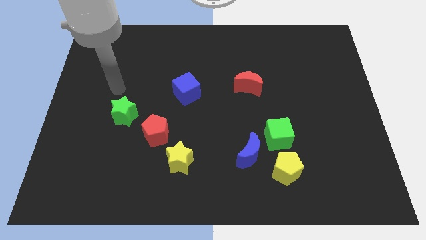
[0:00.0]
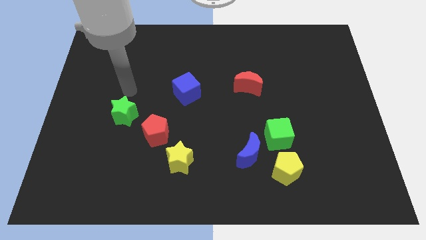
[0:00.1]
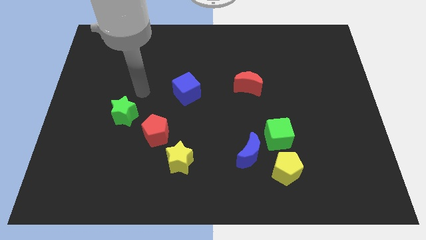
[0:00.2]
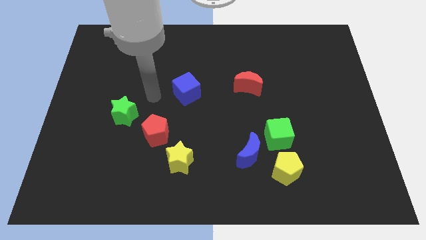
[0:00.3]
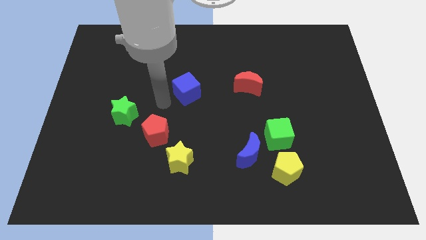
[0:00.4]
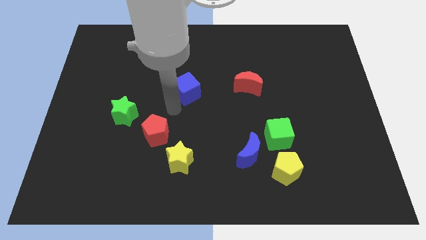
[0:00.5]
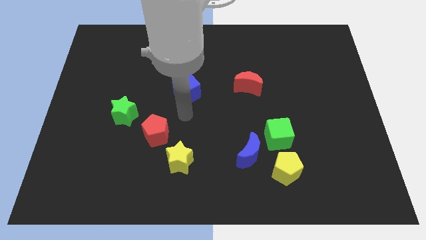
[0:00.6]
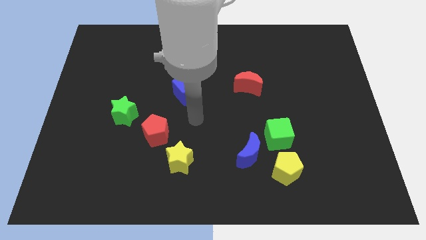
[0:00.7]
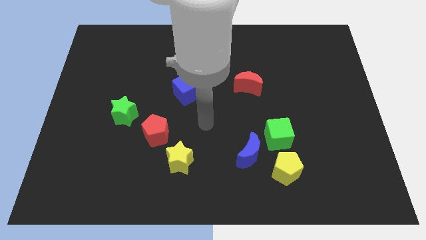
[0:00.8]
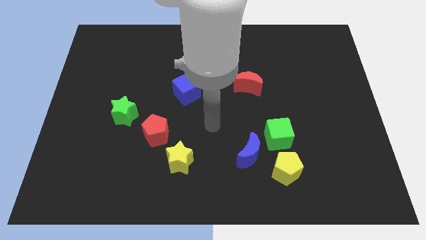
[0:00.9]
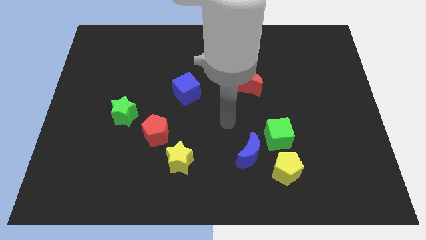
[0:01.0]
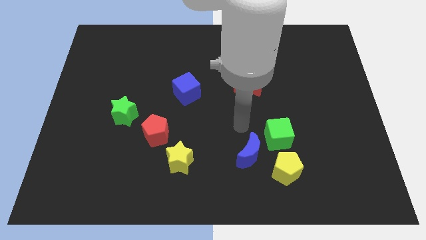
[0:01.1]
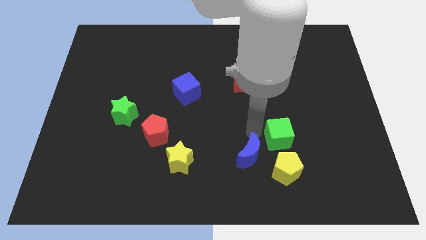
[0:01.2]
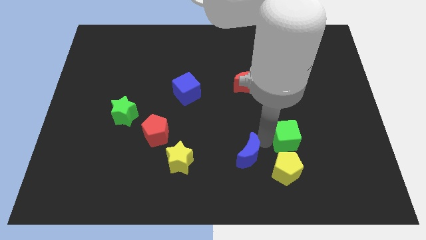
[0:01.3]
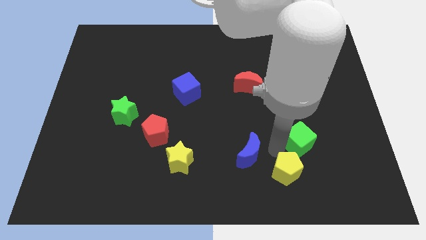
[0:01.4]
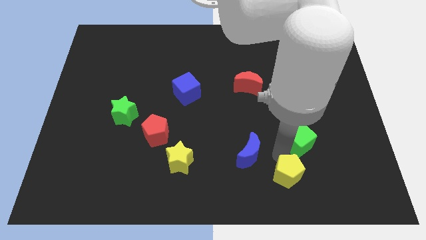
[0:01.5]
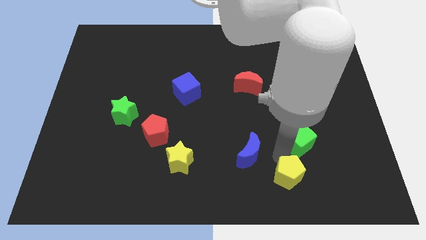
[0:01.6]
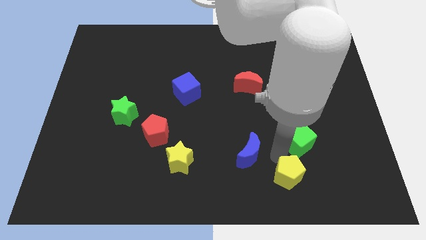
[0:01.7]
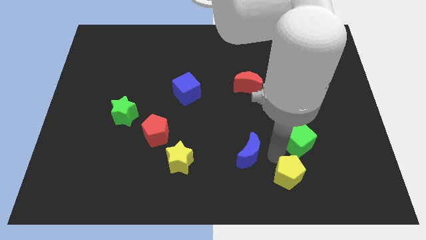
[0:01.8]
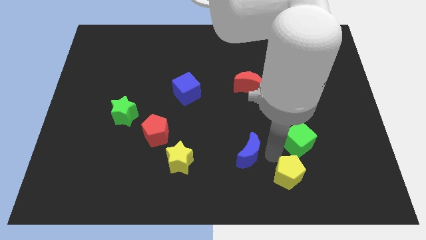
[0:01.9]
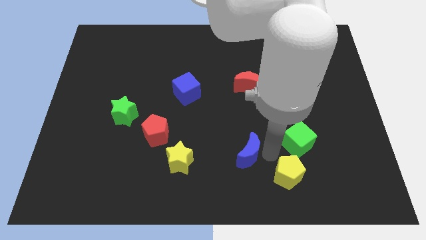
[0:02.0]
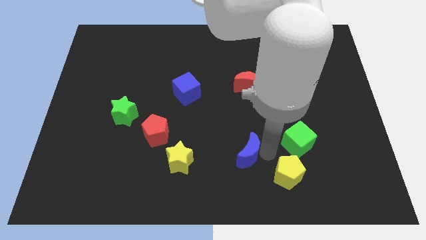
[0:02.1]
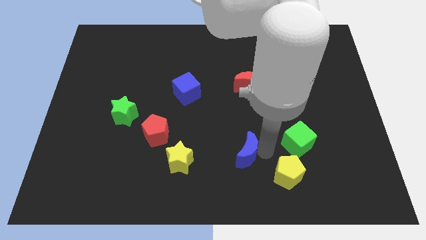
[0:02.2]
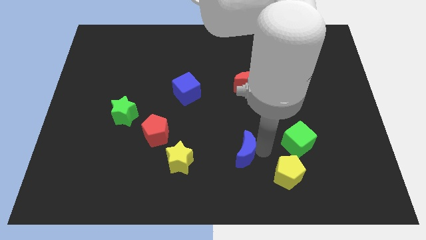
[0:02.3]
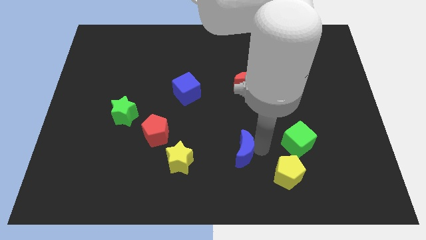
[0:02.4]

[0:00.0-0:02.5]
separate the blue moon from the green cube and yellow pentagon

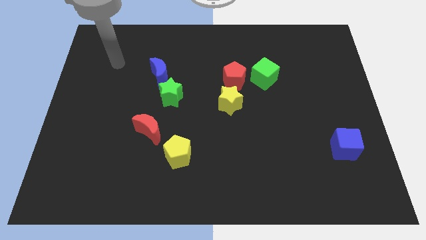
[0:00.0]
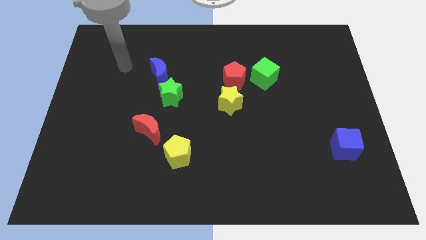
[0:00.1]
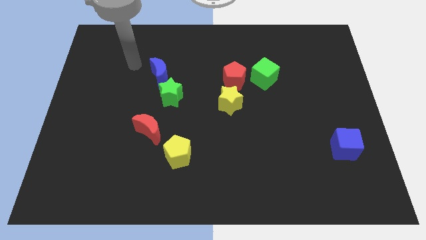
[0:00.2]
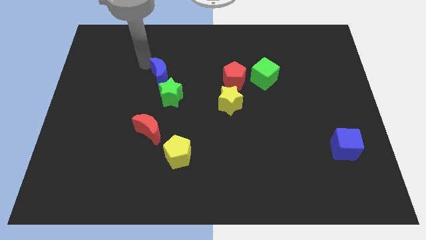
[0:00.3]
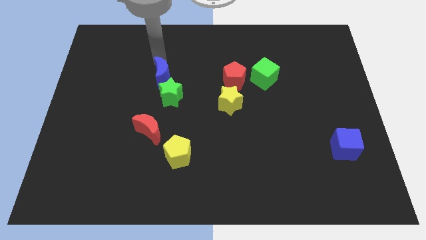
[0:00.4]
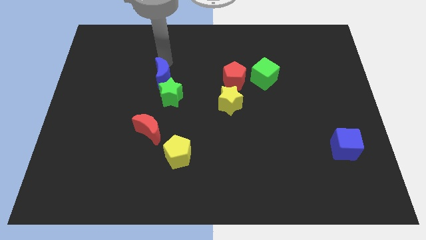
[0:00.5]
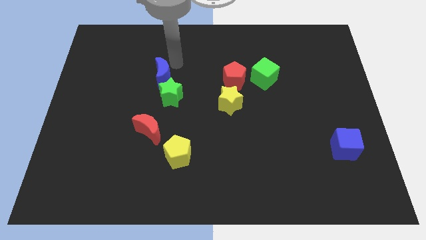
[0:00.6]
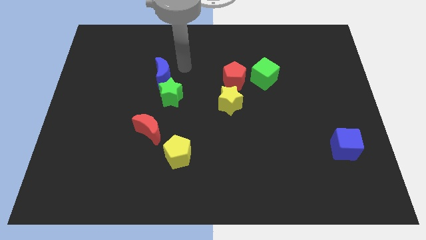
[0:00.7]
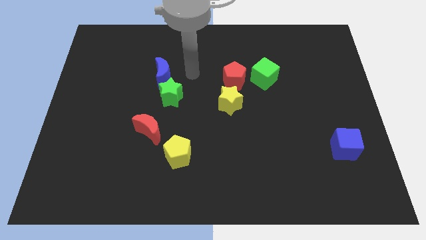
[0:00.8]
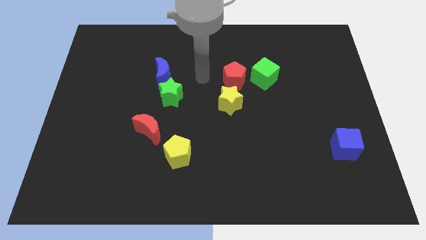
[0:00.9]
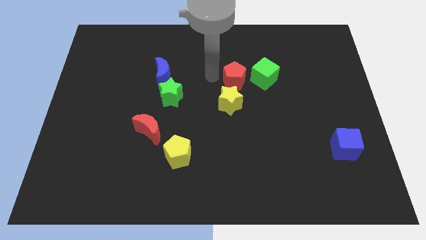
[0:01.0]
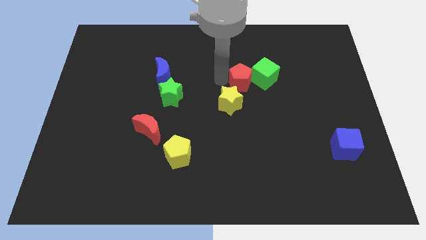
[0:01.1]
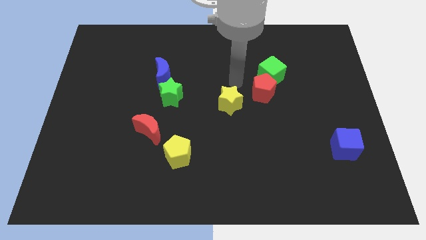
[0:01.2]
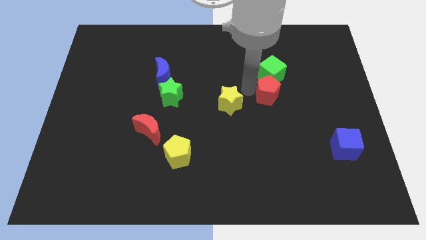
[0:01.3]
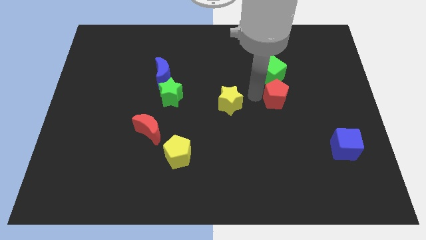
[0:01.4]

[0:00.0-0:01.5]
separate the yellow star from the red pentagon

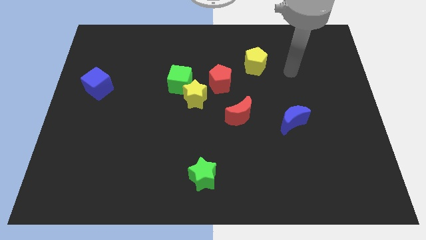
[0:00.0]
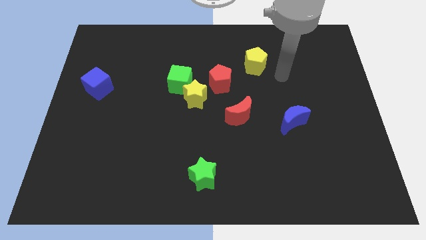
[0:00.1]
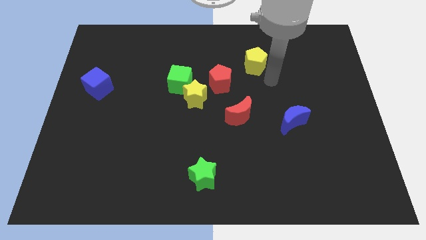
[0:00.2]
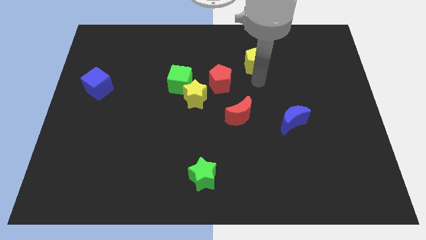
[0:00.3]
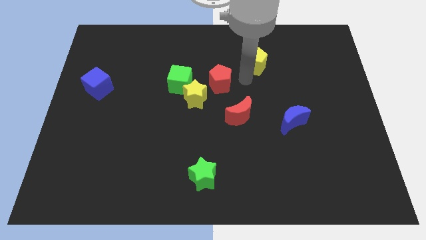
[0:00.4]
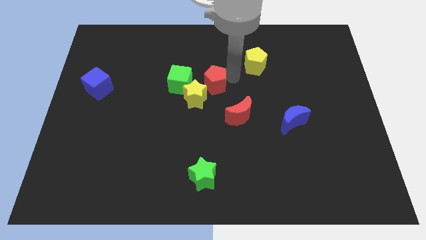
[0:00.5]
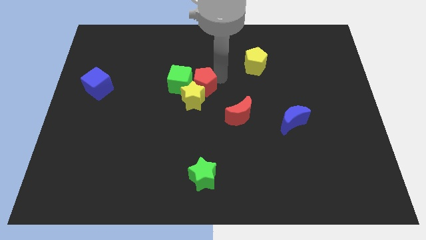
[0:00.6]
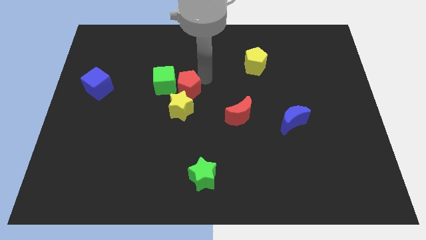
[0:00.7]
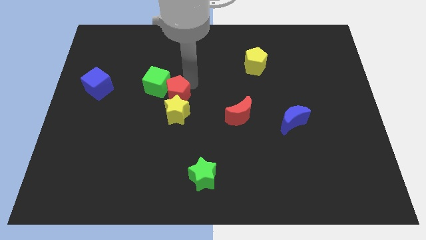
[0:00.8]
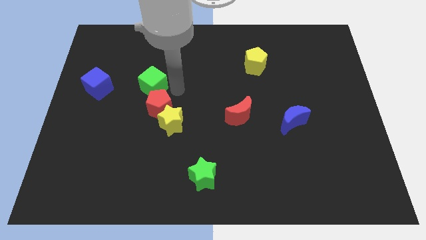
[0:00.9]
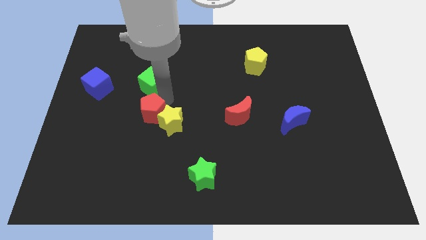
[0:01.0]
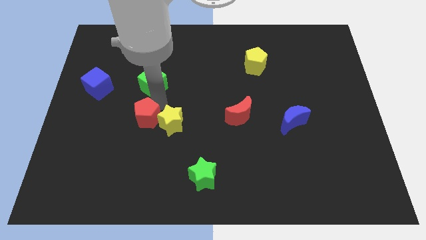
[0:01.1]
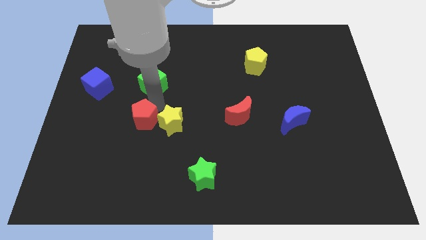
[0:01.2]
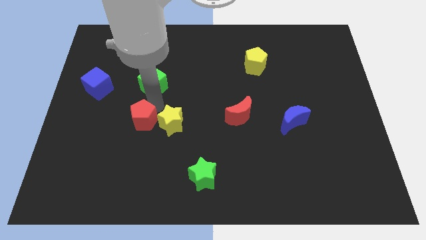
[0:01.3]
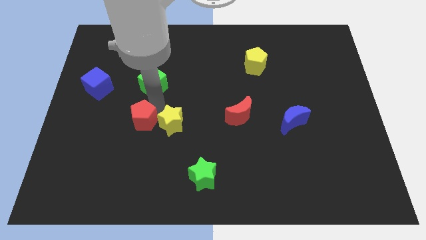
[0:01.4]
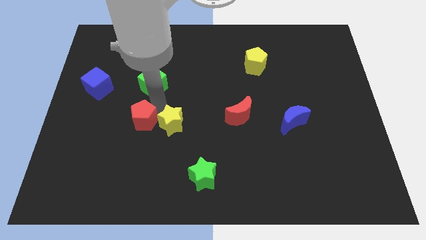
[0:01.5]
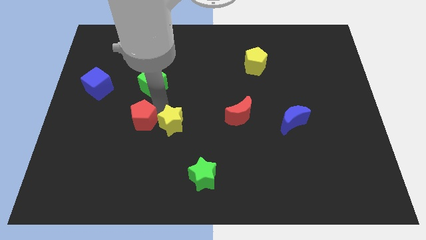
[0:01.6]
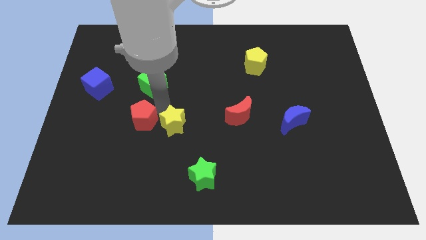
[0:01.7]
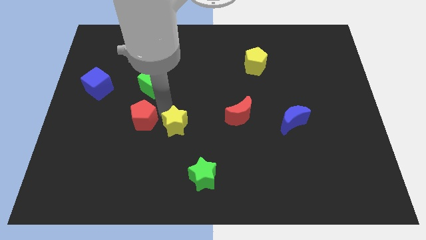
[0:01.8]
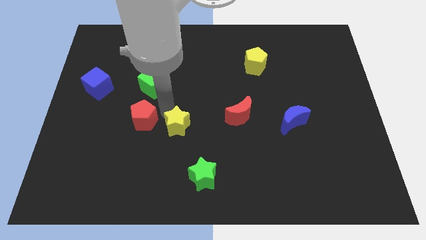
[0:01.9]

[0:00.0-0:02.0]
pull the yellow star apart from the green cube and red pentagon

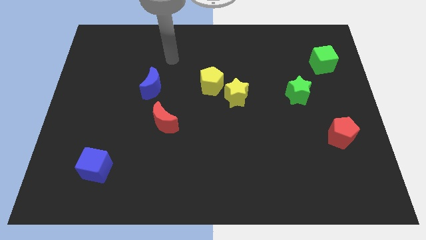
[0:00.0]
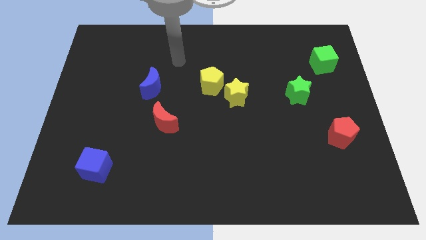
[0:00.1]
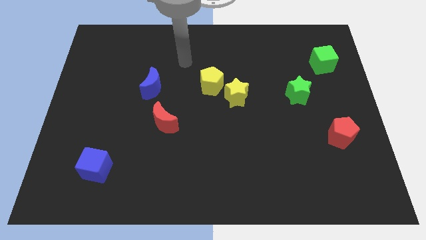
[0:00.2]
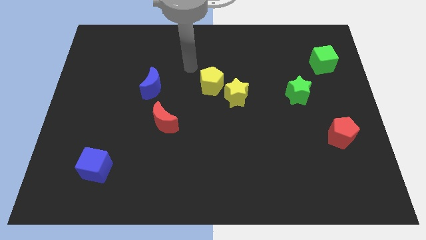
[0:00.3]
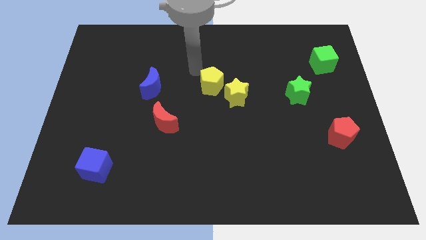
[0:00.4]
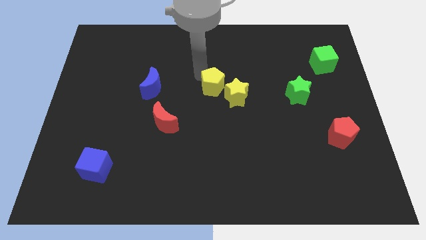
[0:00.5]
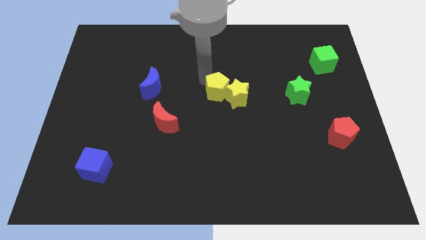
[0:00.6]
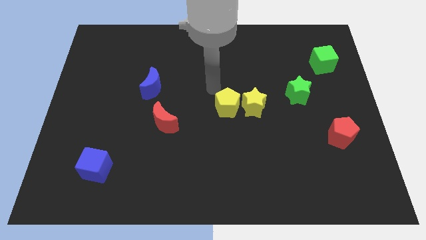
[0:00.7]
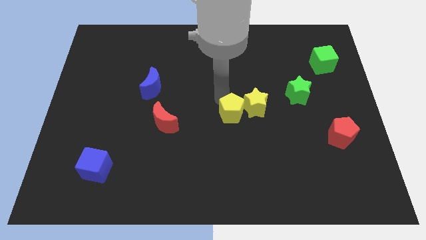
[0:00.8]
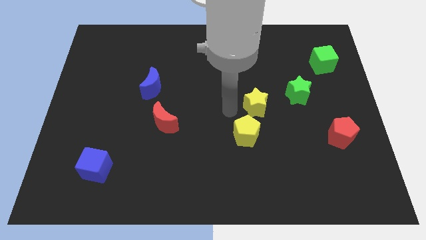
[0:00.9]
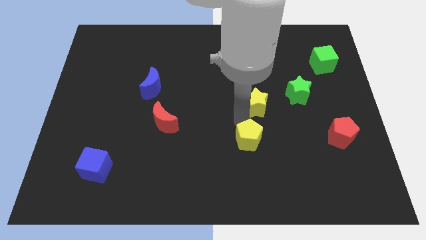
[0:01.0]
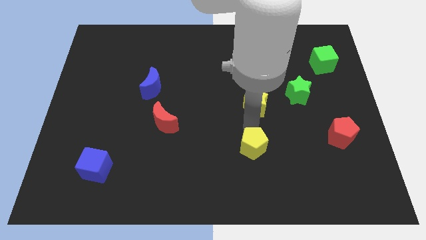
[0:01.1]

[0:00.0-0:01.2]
move the yellow star away from the yellow pentagon

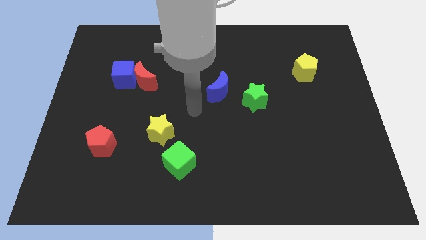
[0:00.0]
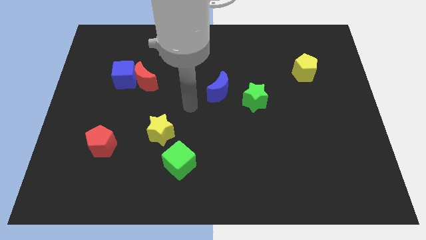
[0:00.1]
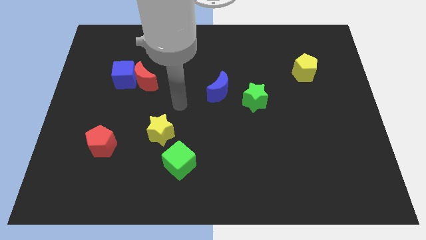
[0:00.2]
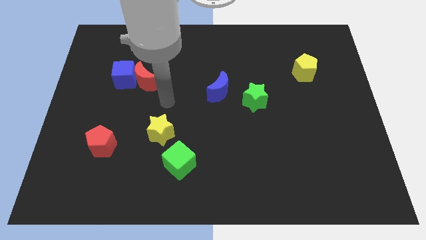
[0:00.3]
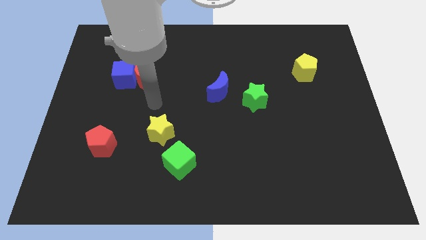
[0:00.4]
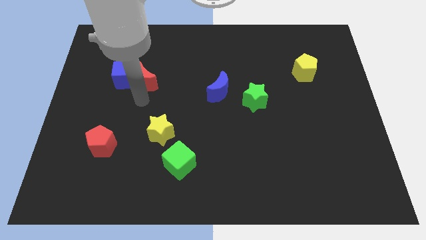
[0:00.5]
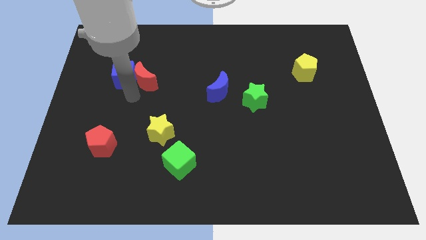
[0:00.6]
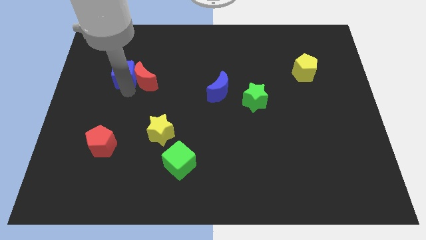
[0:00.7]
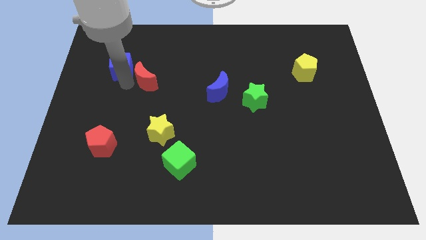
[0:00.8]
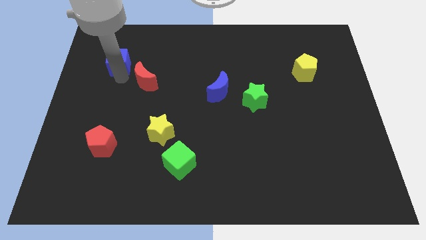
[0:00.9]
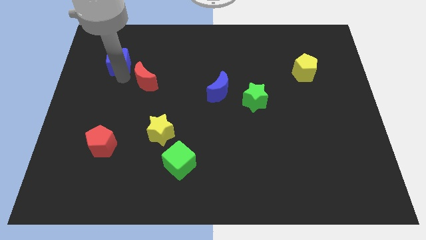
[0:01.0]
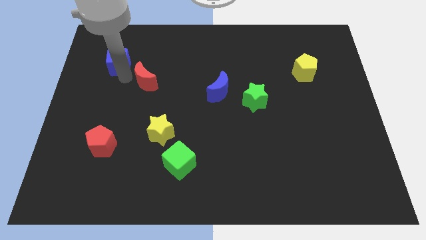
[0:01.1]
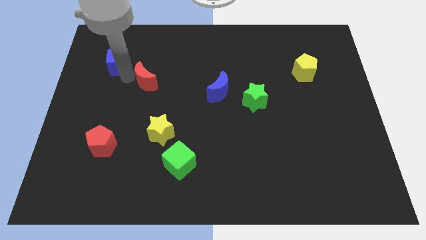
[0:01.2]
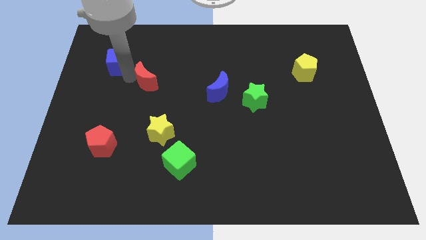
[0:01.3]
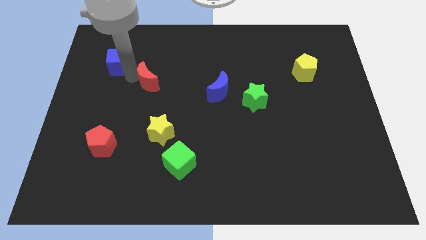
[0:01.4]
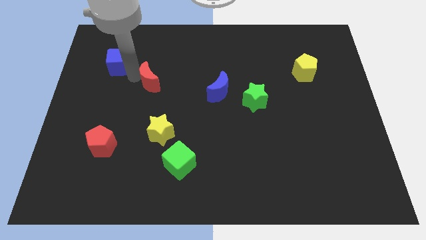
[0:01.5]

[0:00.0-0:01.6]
pull the red moon apart from the blue cube

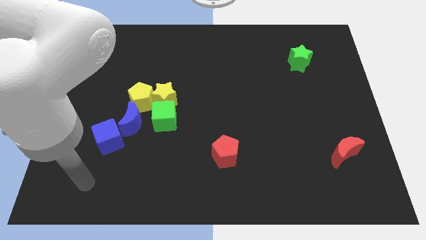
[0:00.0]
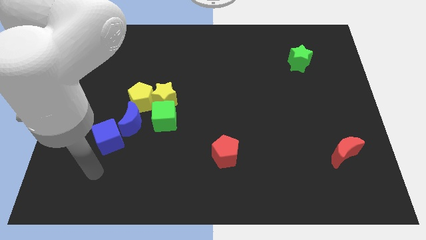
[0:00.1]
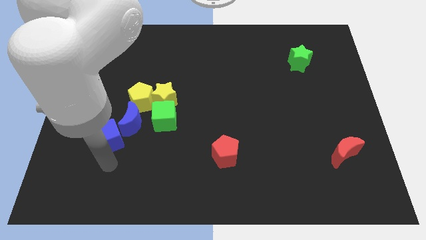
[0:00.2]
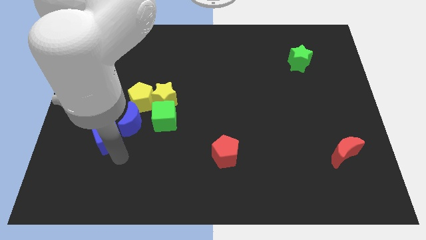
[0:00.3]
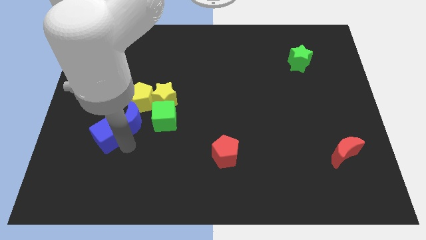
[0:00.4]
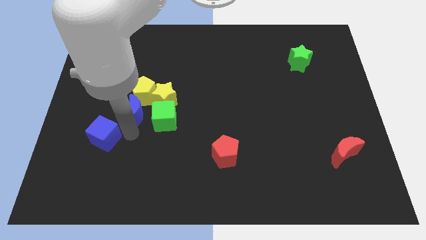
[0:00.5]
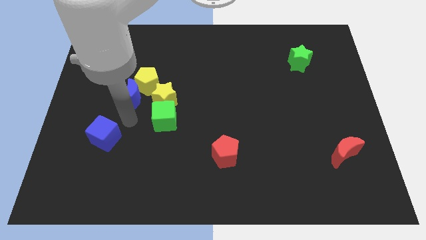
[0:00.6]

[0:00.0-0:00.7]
separate the blue cube from the blue moon
